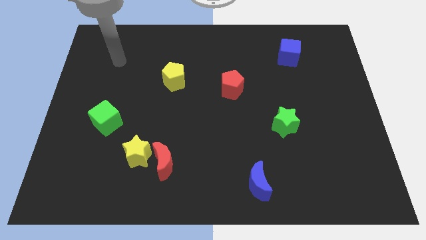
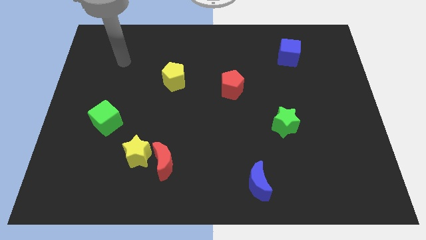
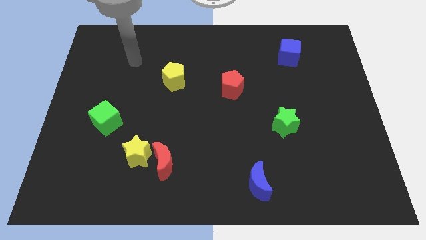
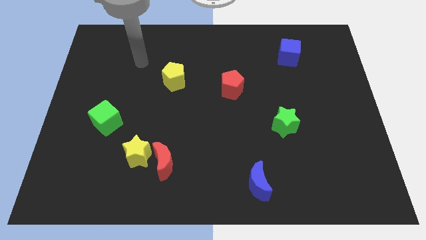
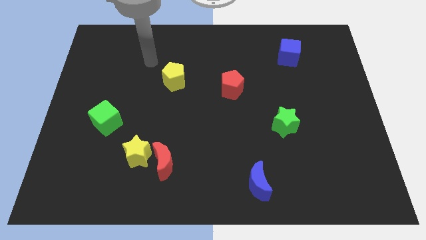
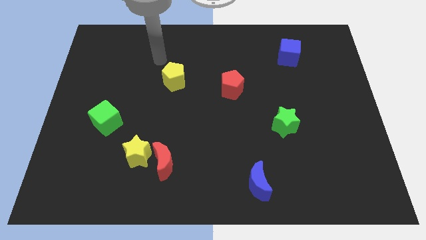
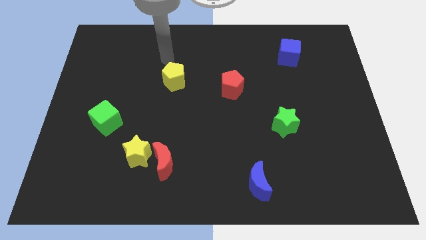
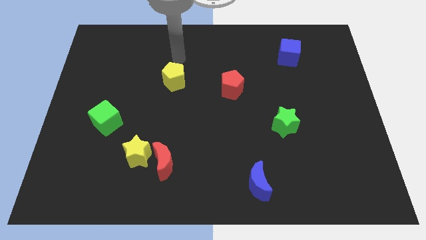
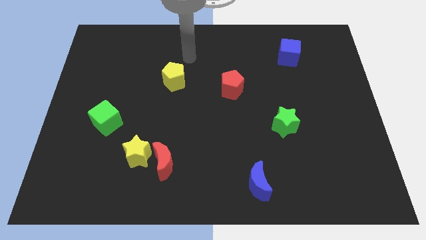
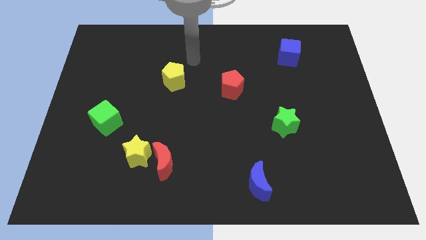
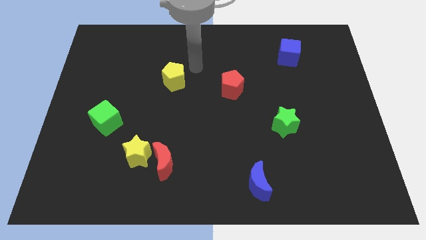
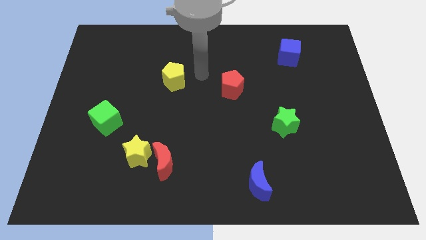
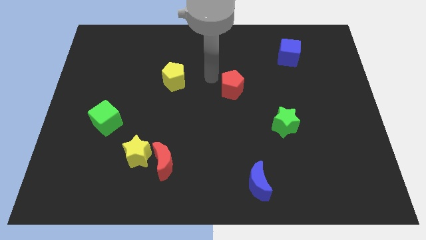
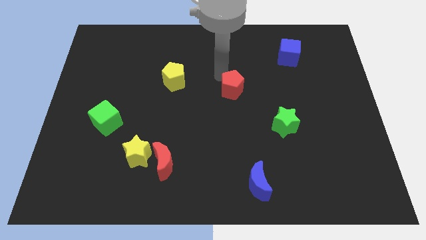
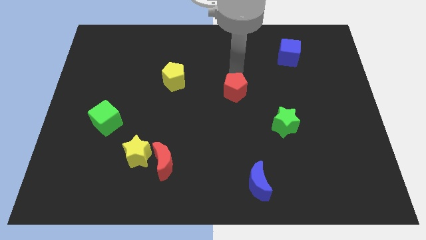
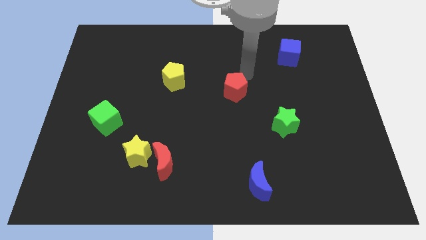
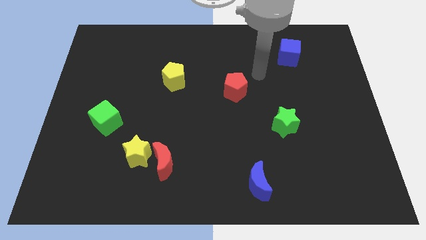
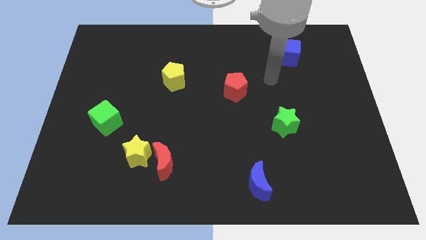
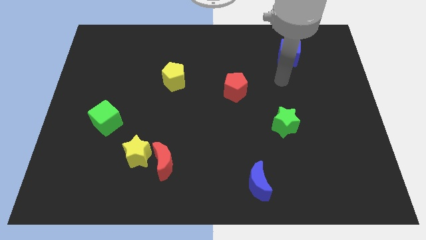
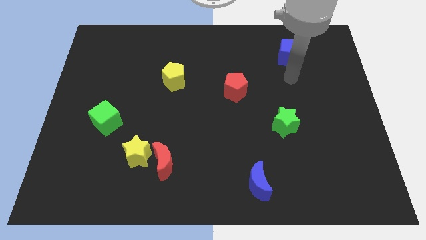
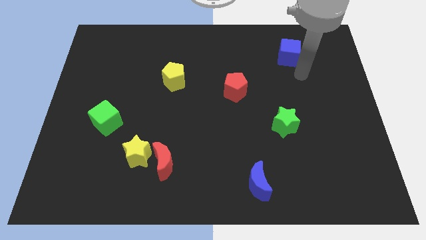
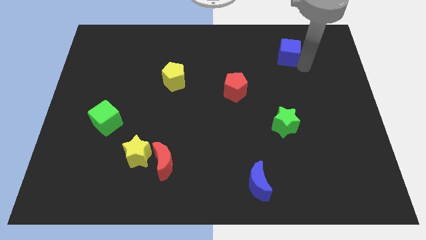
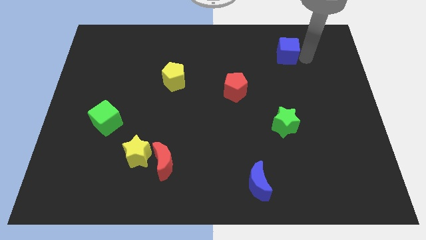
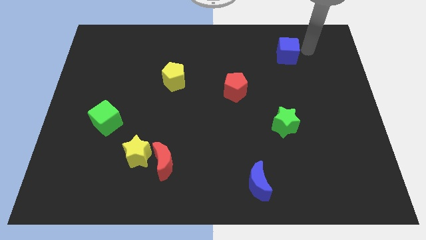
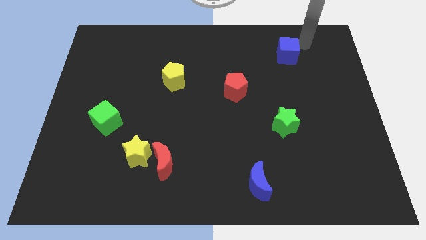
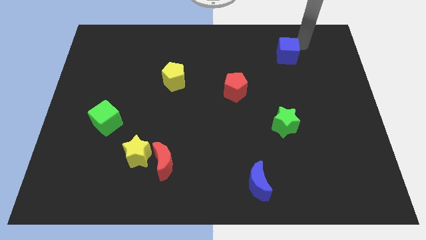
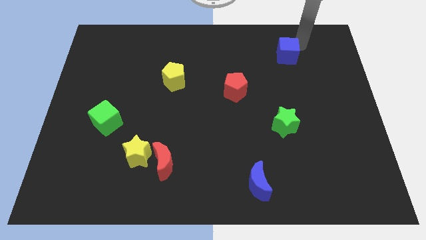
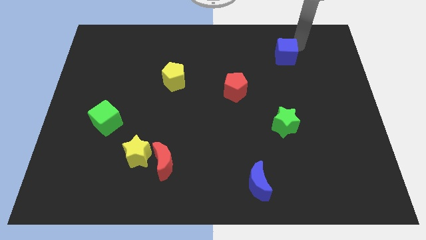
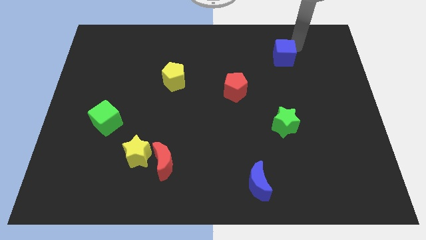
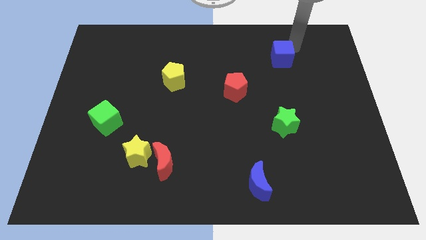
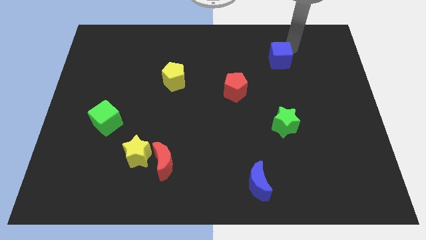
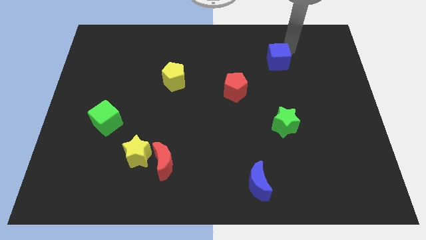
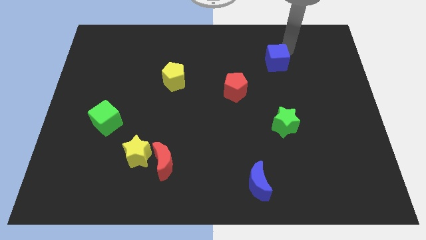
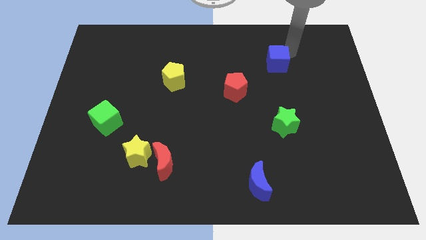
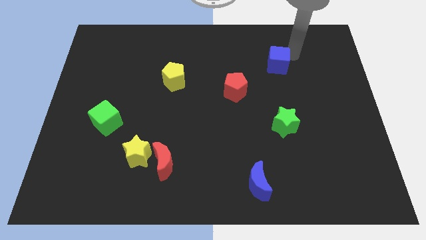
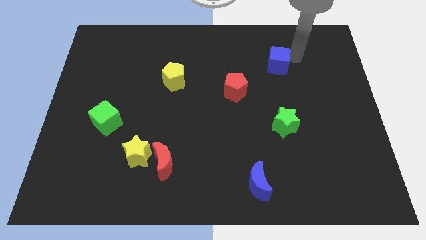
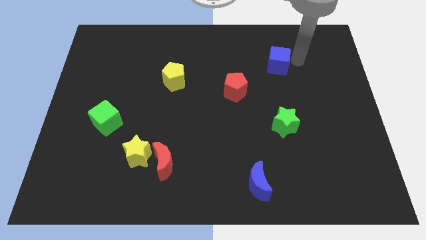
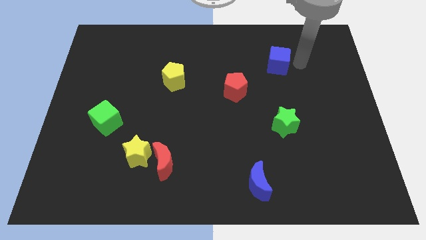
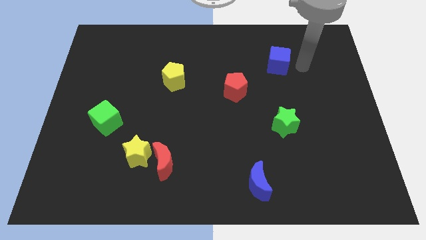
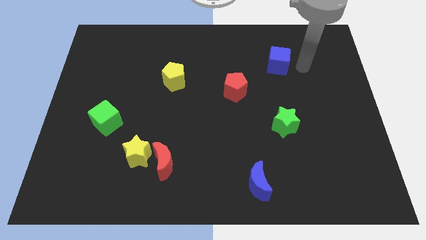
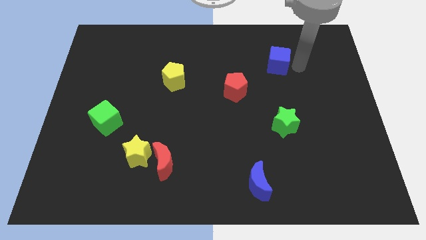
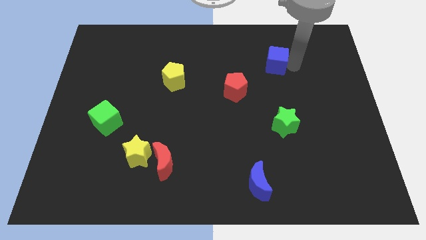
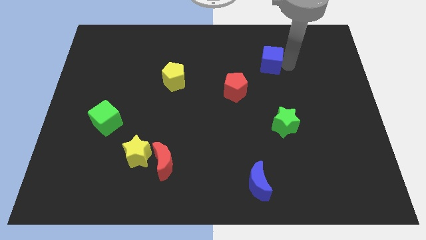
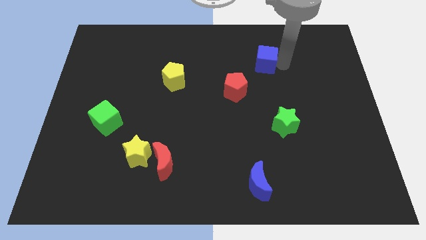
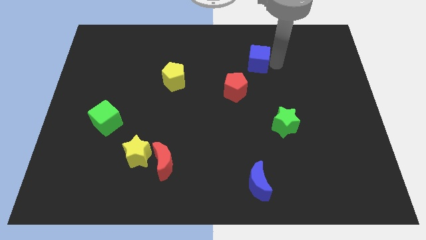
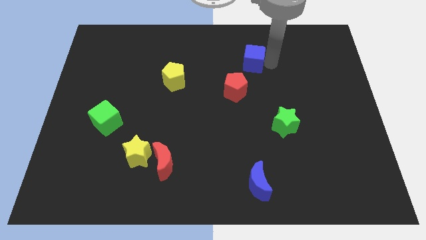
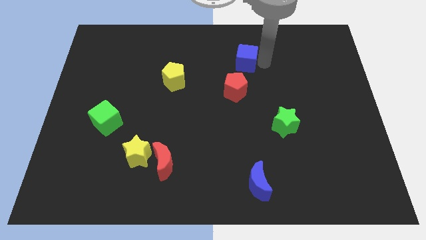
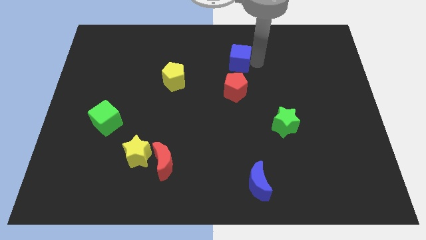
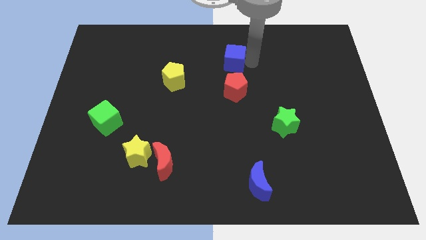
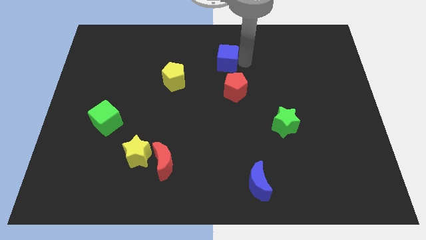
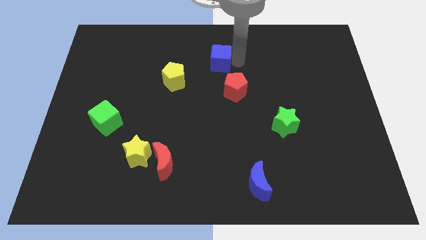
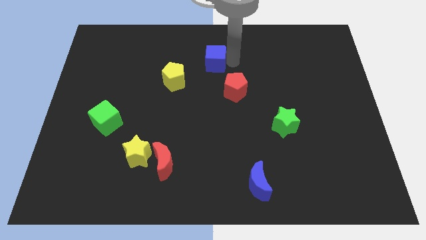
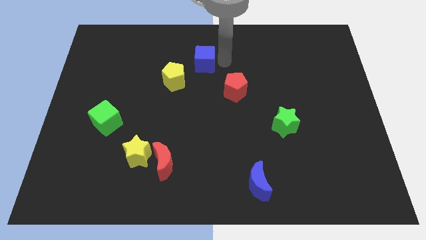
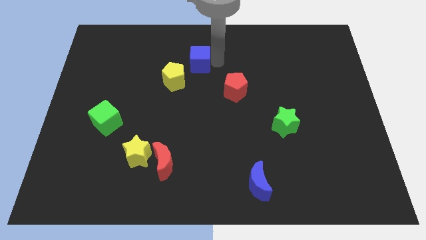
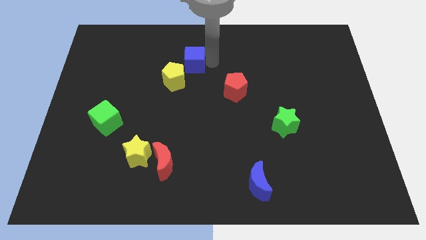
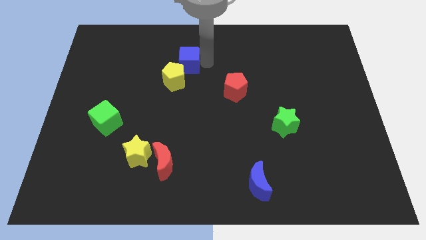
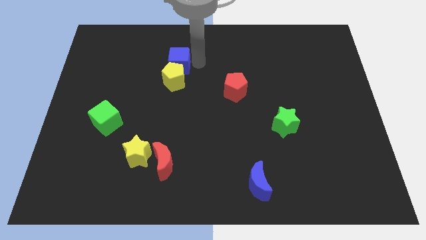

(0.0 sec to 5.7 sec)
put the blue cube diagonally up and to the left of the yellow pentagon

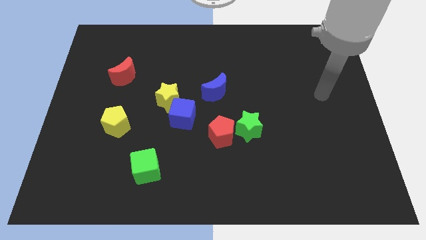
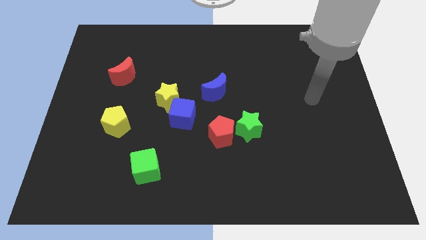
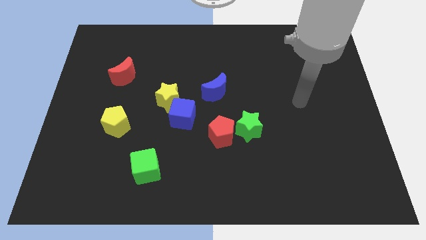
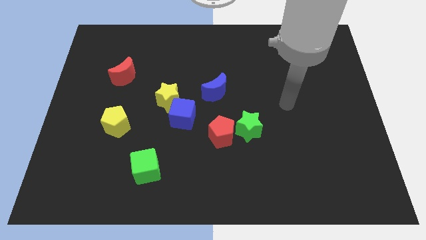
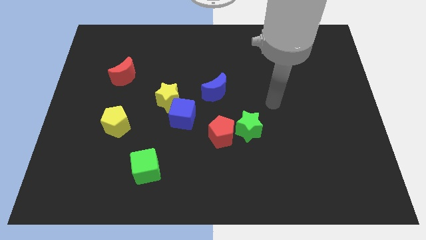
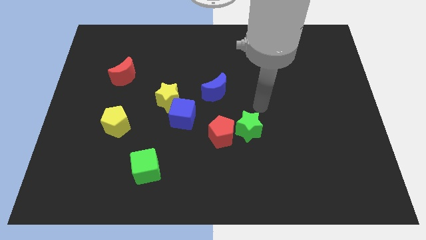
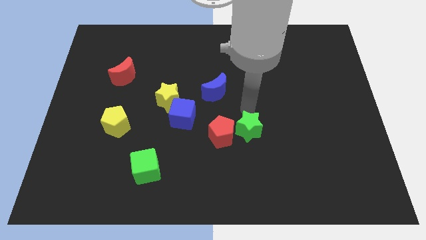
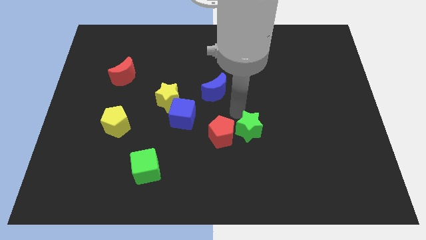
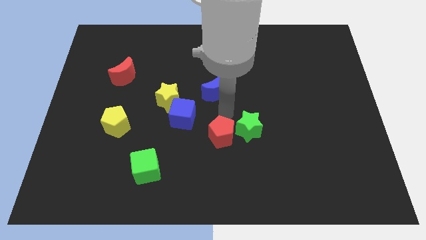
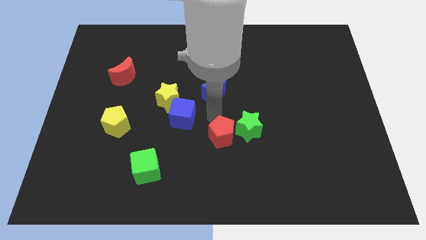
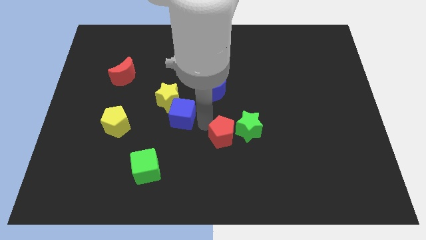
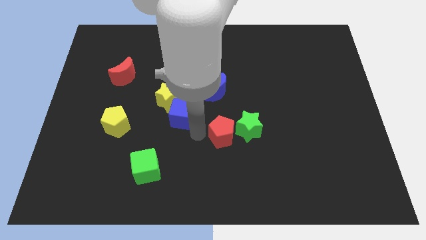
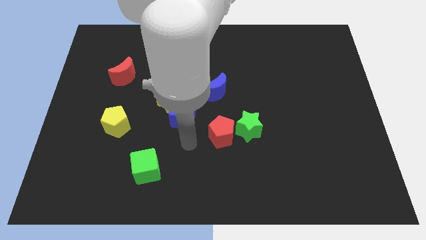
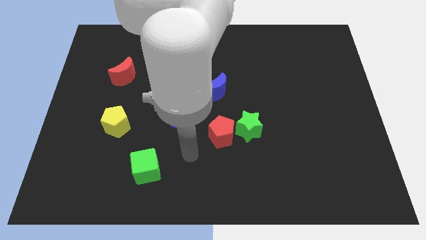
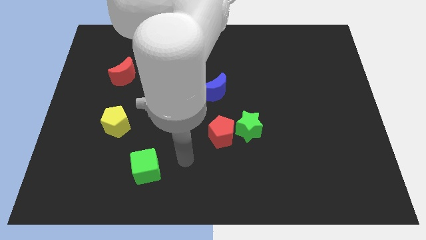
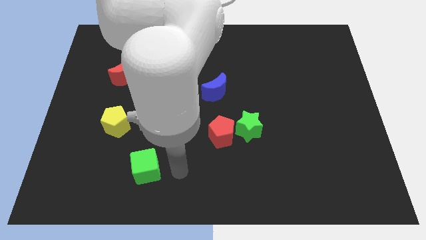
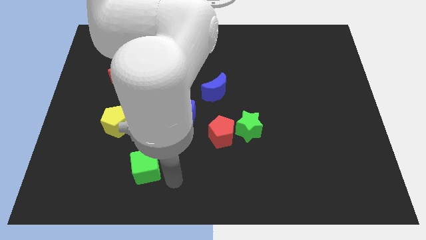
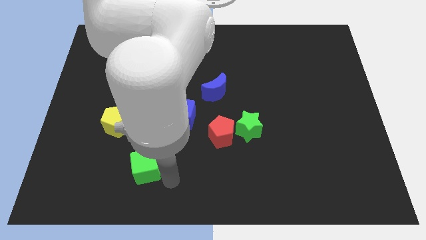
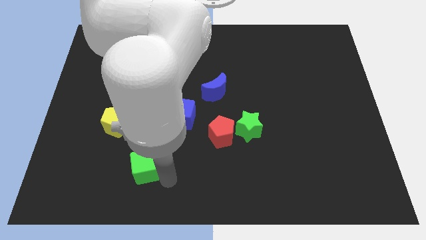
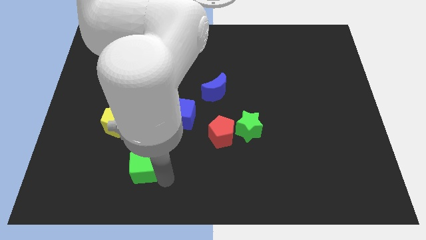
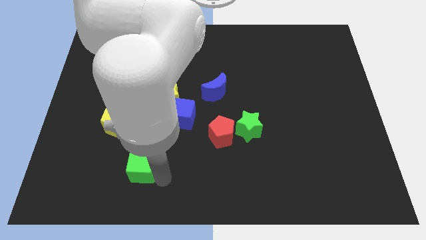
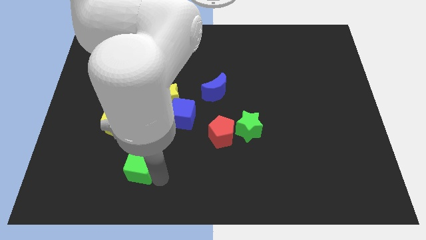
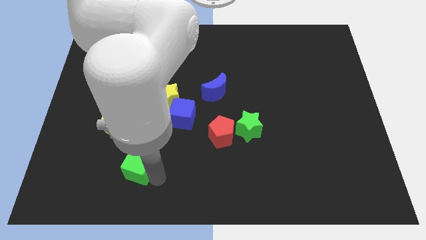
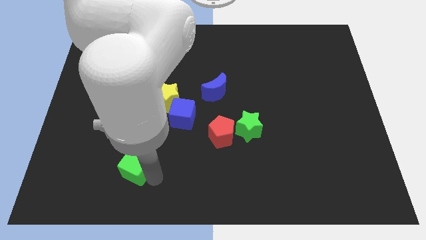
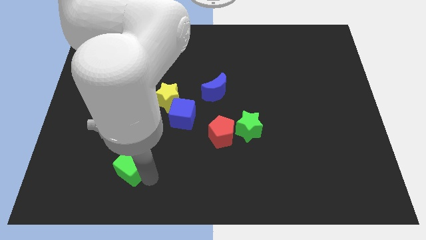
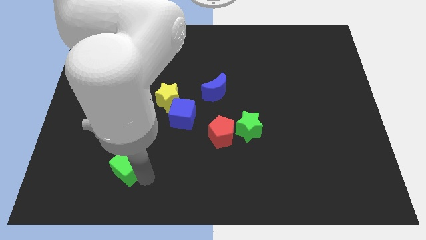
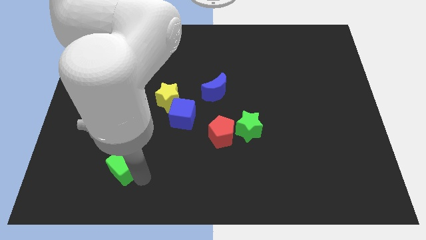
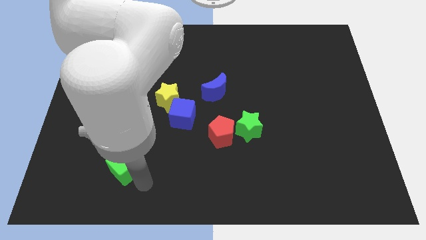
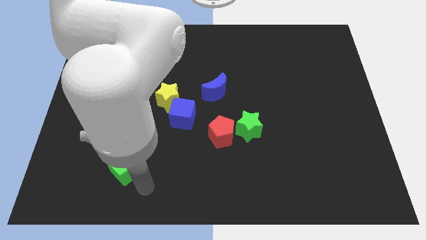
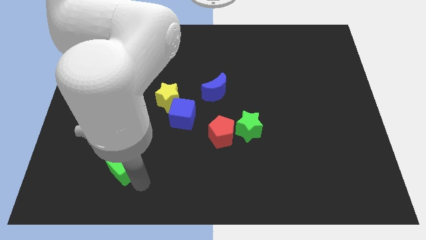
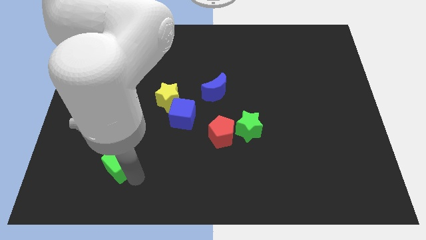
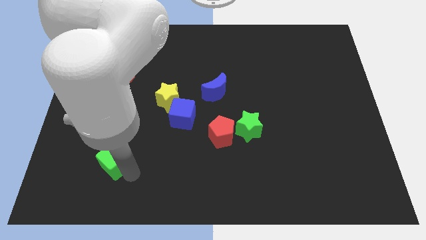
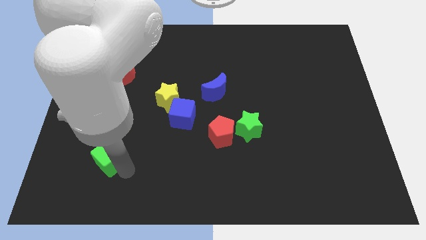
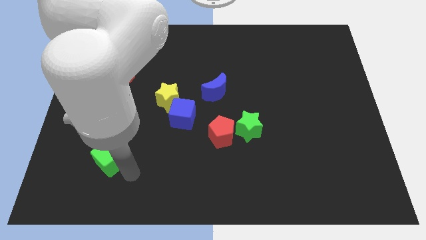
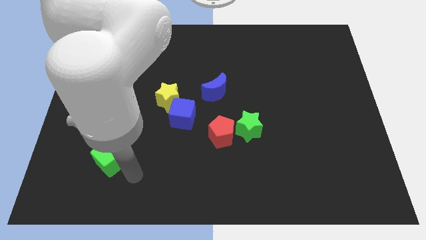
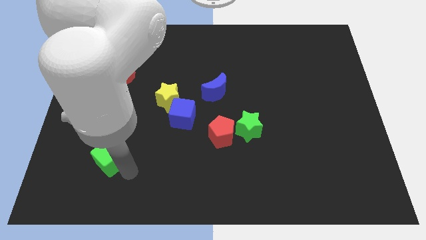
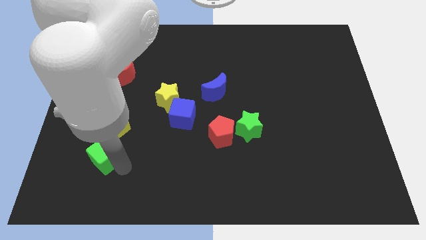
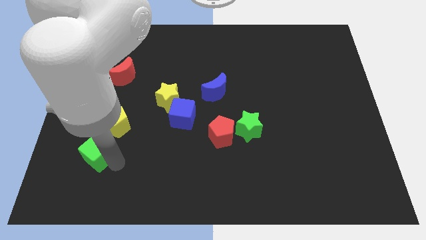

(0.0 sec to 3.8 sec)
put the green cube to the bottom left of the yellow pentagon
